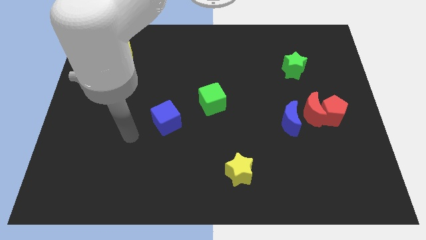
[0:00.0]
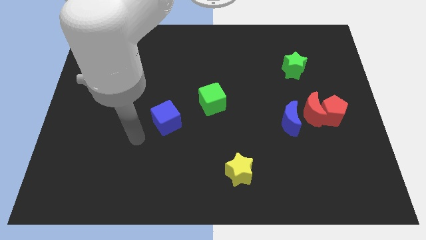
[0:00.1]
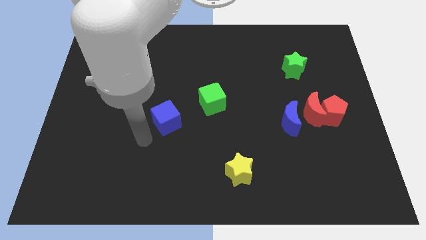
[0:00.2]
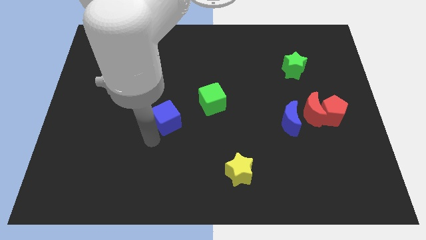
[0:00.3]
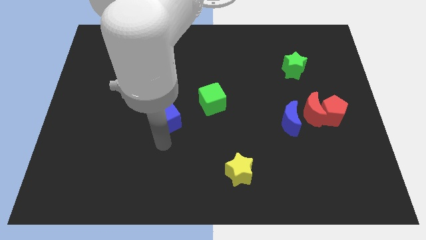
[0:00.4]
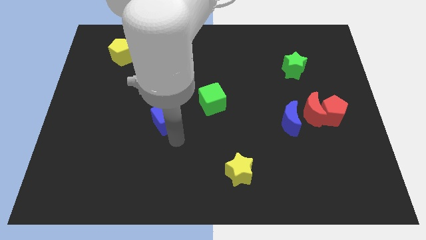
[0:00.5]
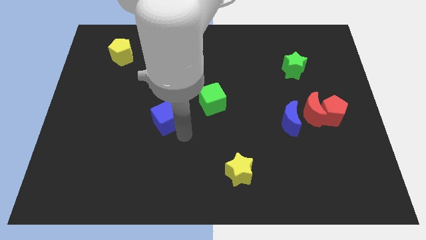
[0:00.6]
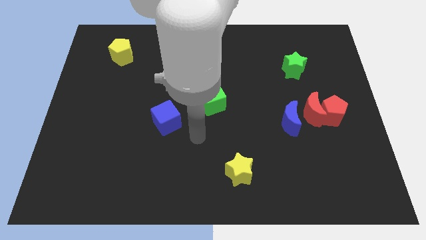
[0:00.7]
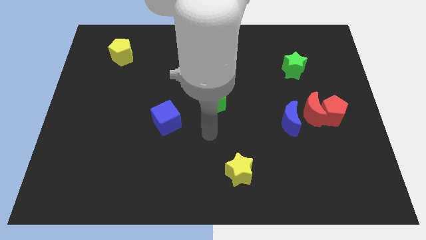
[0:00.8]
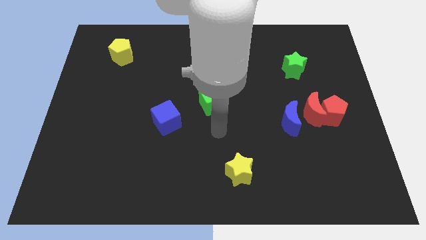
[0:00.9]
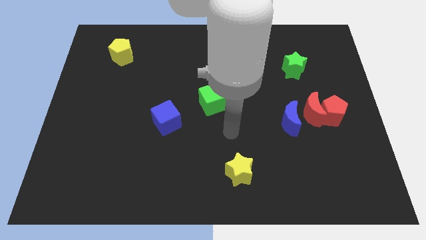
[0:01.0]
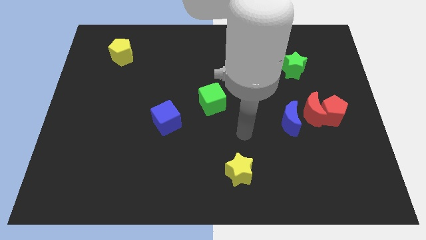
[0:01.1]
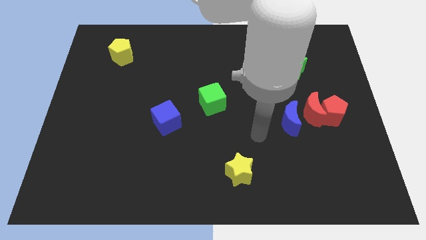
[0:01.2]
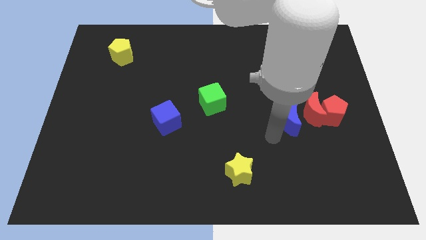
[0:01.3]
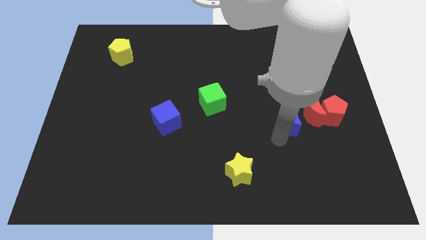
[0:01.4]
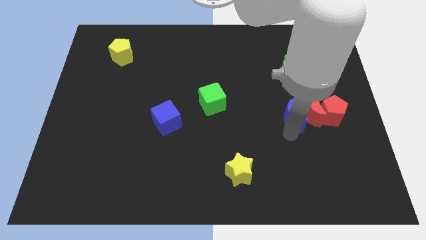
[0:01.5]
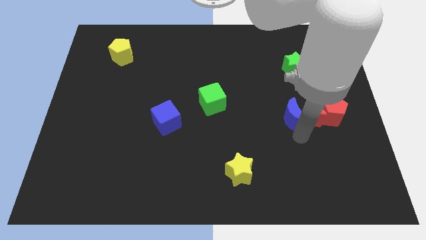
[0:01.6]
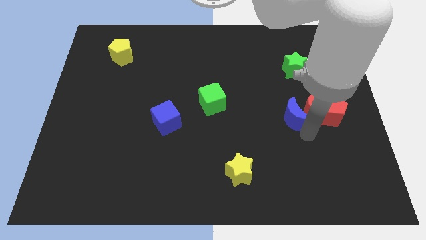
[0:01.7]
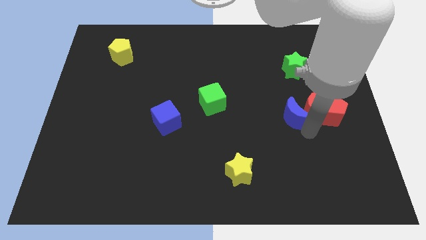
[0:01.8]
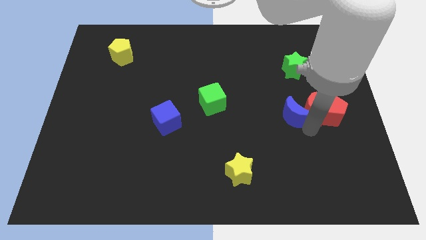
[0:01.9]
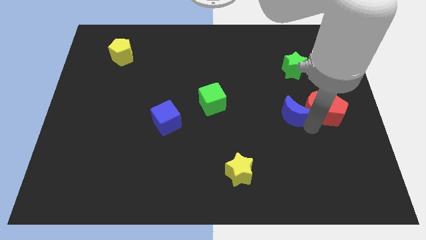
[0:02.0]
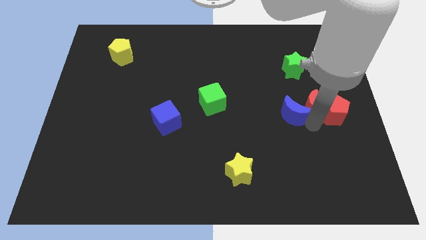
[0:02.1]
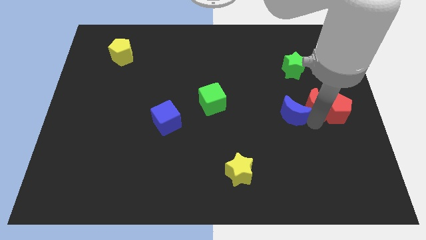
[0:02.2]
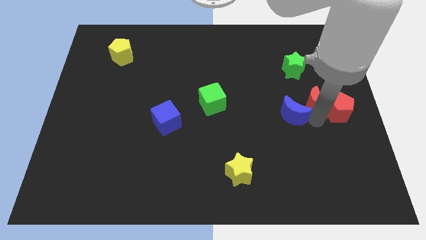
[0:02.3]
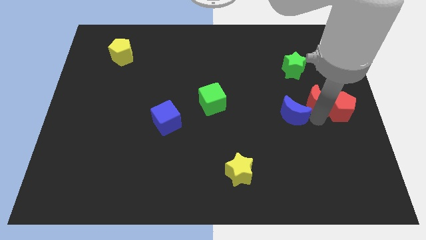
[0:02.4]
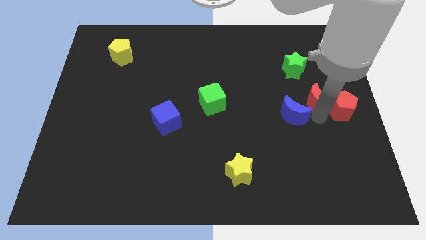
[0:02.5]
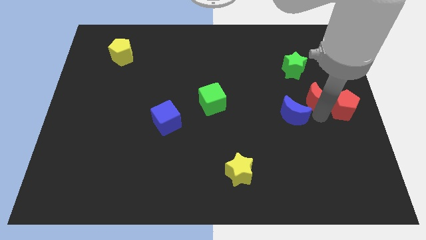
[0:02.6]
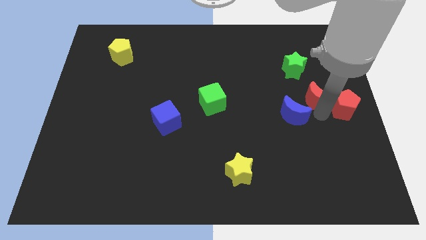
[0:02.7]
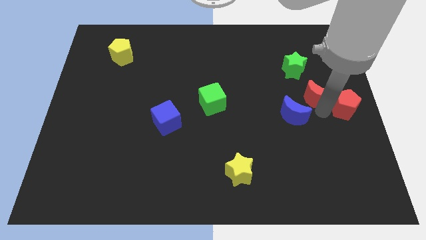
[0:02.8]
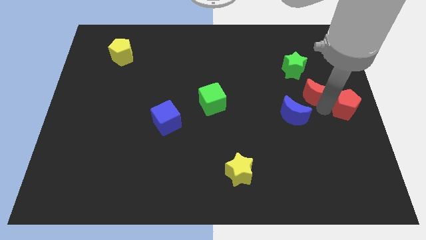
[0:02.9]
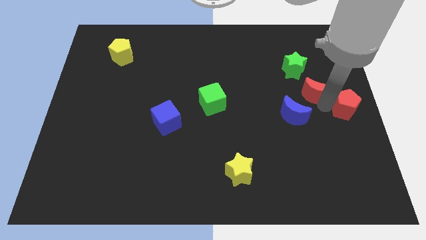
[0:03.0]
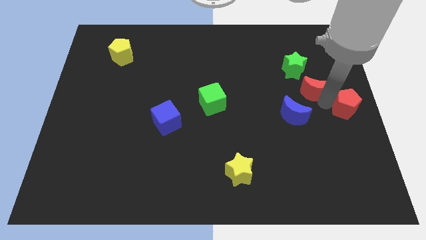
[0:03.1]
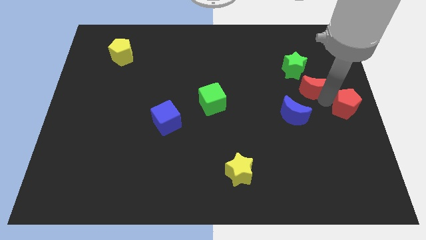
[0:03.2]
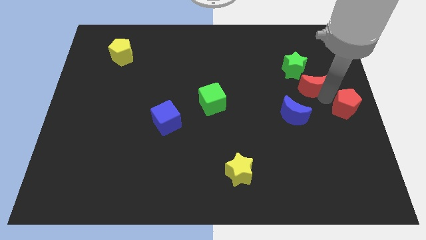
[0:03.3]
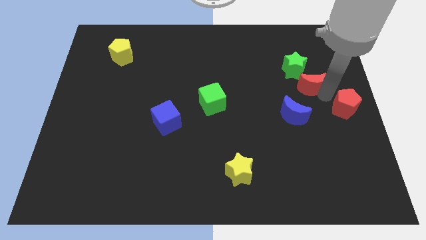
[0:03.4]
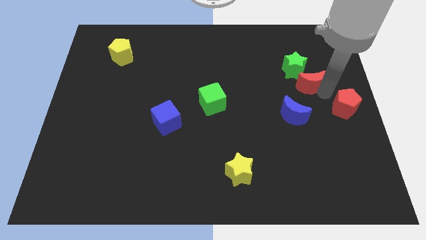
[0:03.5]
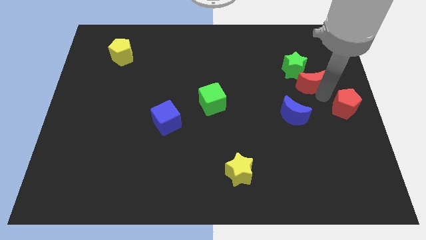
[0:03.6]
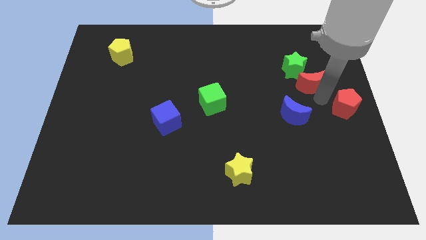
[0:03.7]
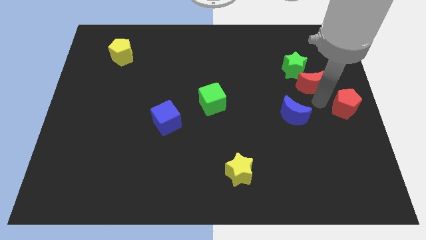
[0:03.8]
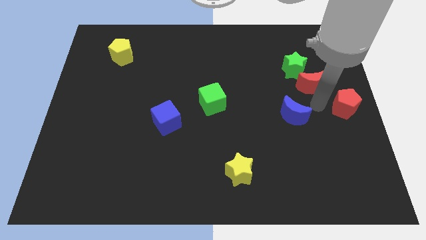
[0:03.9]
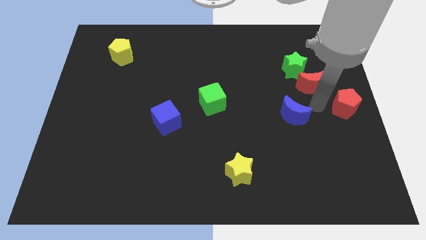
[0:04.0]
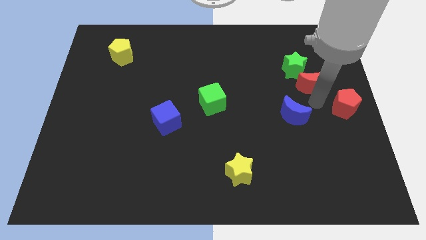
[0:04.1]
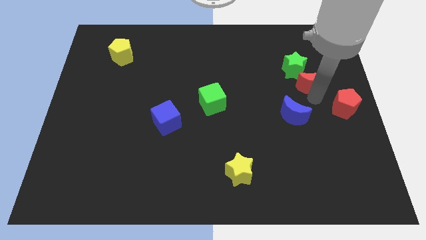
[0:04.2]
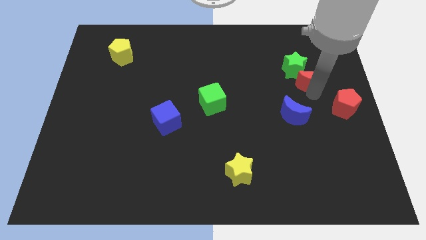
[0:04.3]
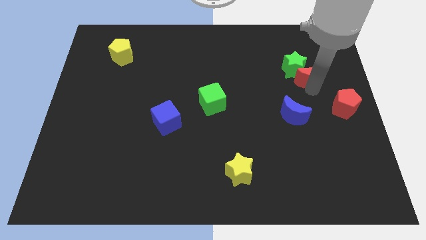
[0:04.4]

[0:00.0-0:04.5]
separate the red moon from the red pentagon and blue moon

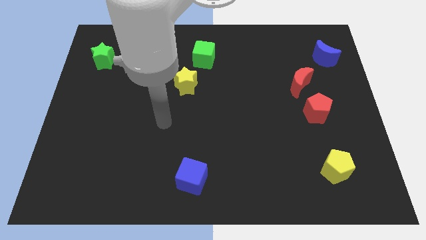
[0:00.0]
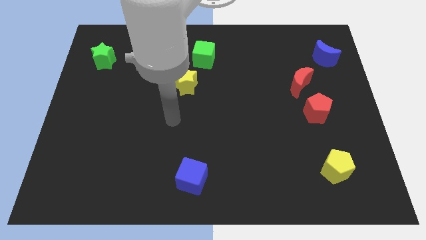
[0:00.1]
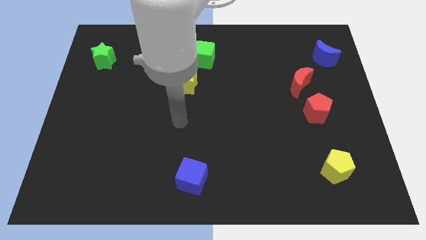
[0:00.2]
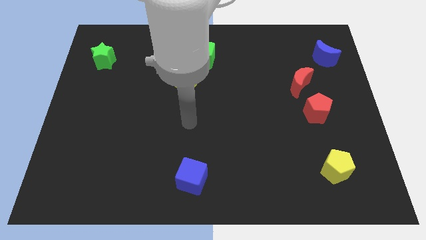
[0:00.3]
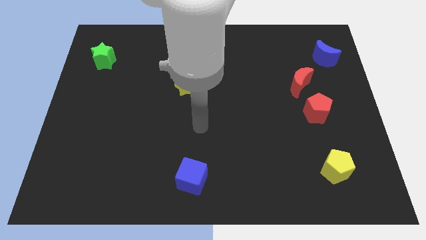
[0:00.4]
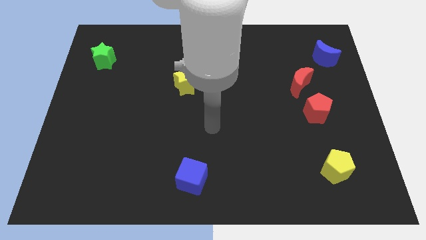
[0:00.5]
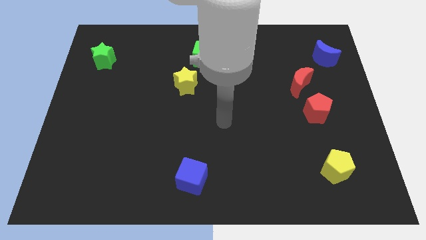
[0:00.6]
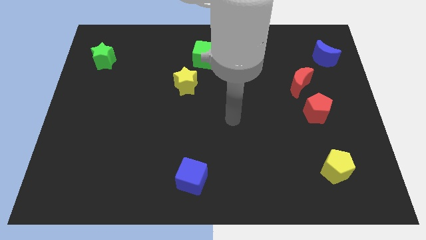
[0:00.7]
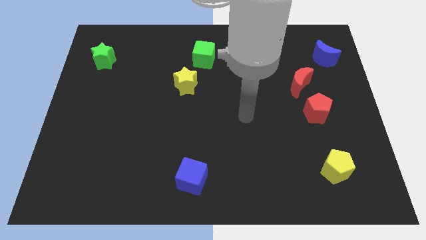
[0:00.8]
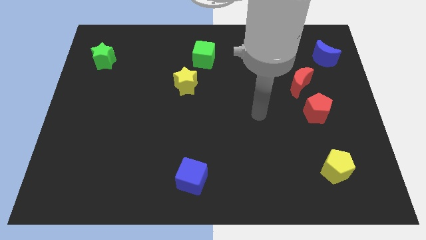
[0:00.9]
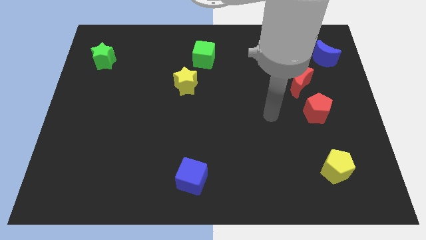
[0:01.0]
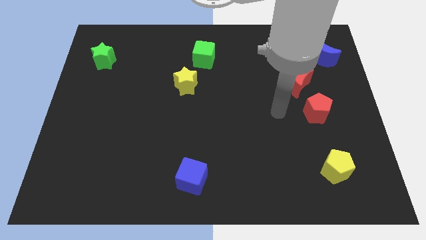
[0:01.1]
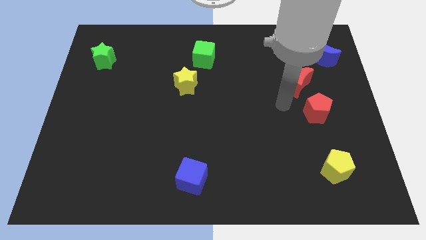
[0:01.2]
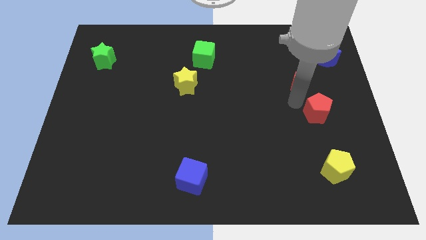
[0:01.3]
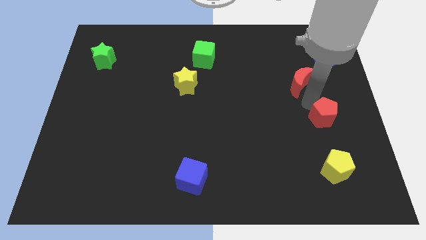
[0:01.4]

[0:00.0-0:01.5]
separate the red moon from the red pentagon

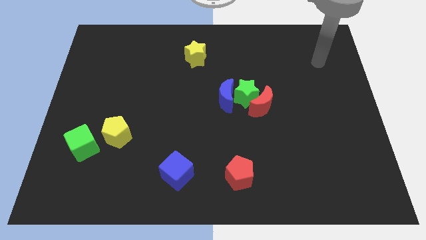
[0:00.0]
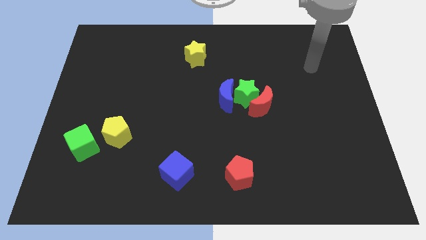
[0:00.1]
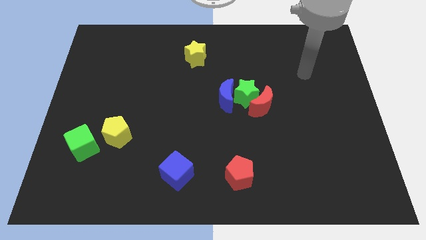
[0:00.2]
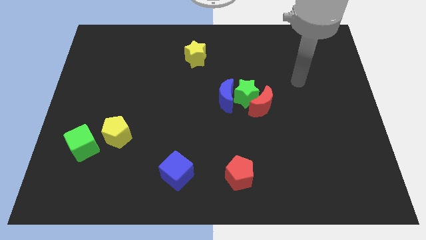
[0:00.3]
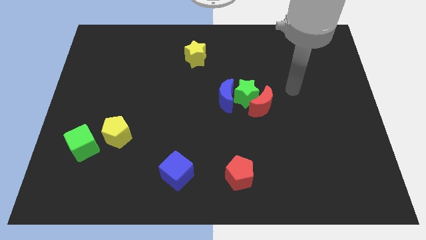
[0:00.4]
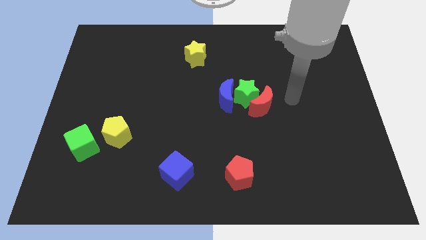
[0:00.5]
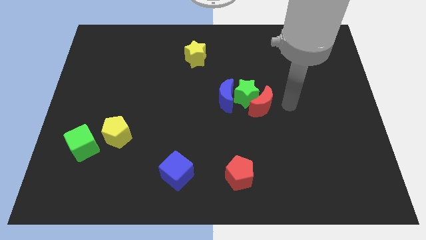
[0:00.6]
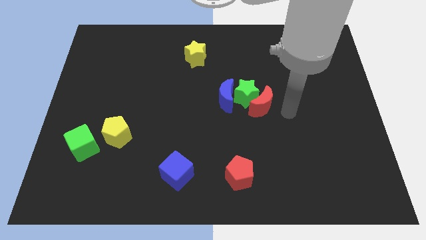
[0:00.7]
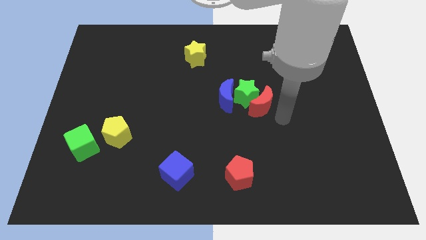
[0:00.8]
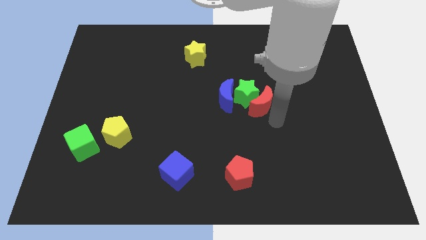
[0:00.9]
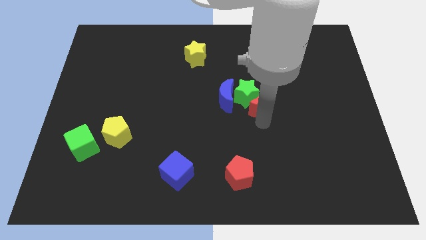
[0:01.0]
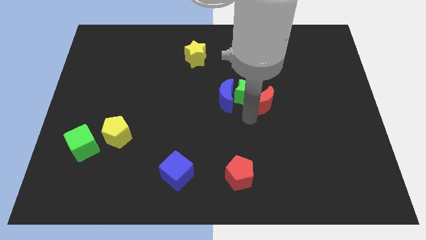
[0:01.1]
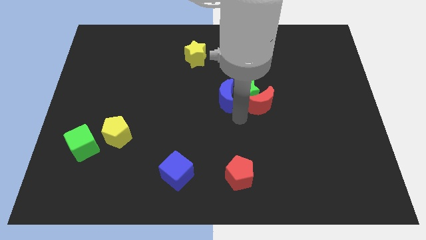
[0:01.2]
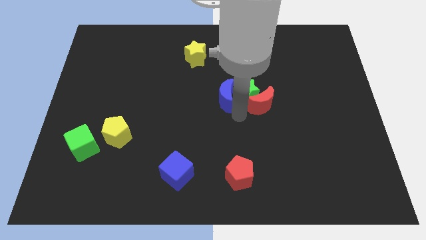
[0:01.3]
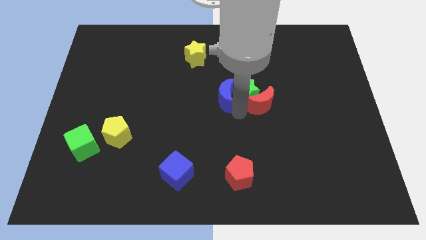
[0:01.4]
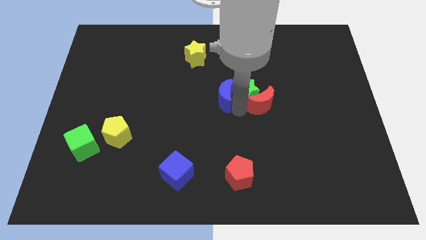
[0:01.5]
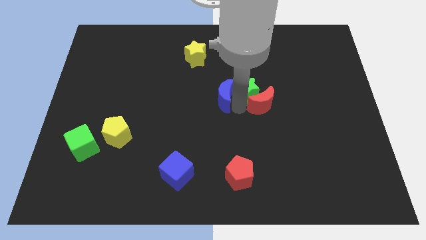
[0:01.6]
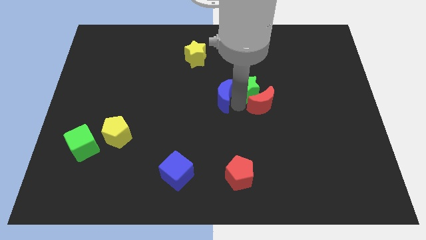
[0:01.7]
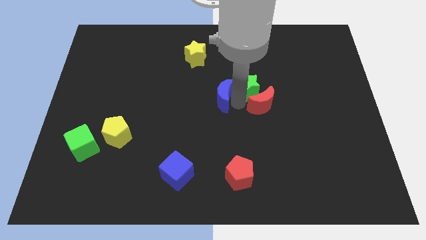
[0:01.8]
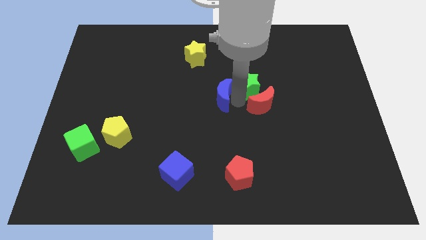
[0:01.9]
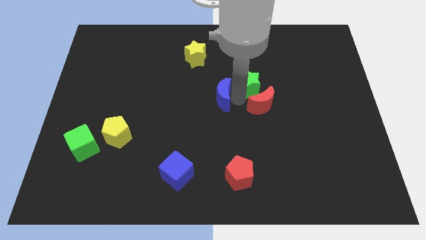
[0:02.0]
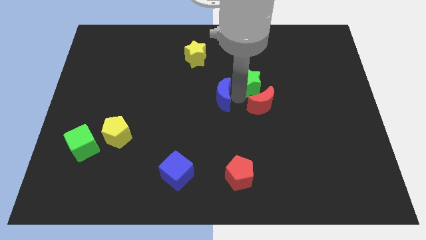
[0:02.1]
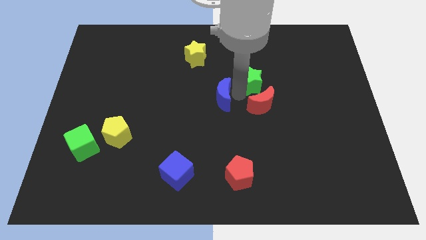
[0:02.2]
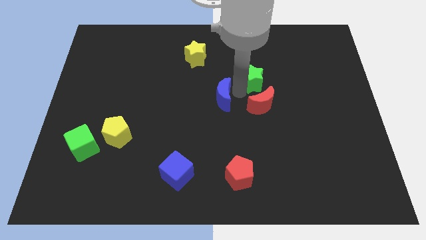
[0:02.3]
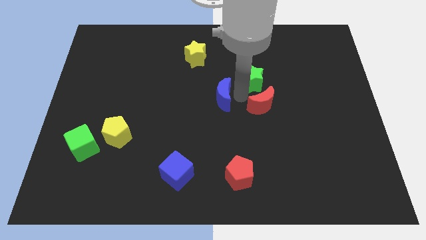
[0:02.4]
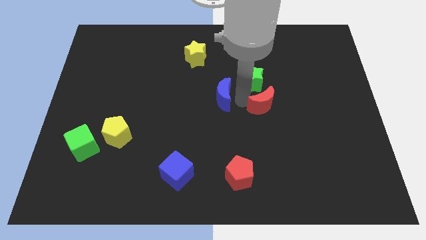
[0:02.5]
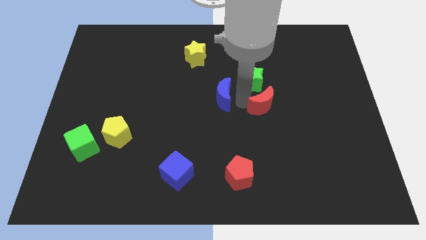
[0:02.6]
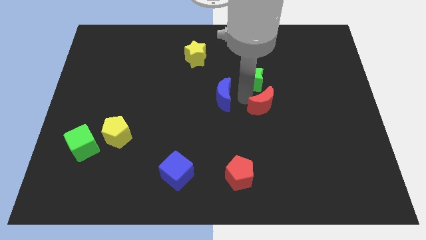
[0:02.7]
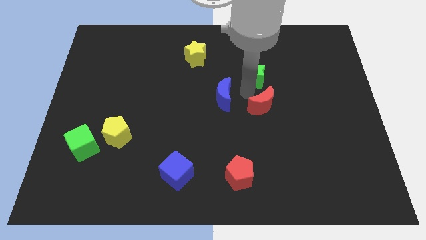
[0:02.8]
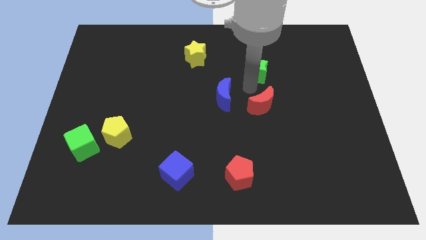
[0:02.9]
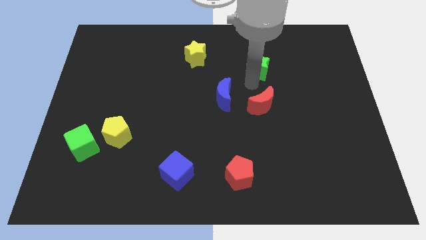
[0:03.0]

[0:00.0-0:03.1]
pull the green star apart from the red moon and blue moon

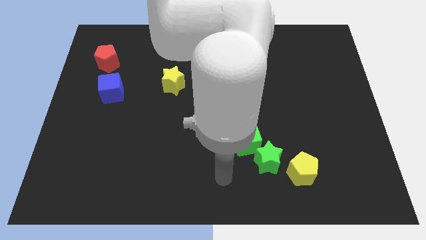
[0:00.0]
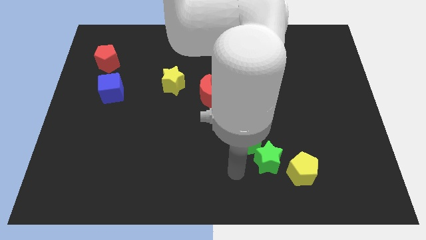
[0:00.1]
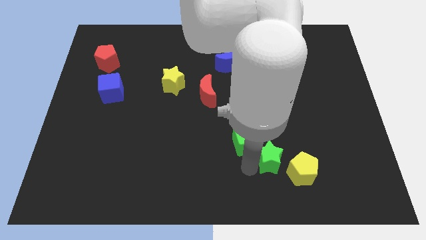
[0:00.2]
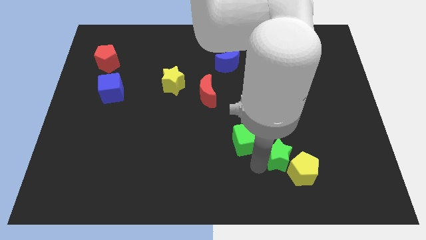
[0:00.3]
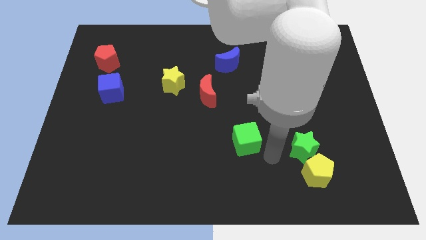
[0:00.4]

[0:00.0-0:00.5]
move the green cube away from the green star
